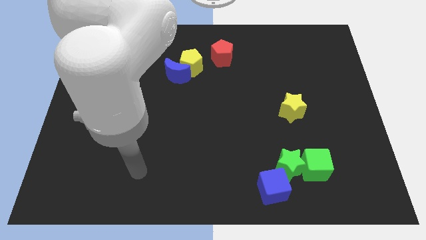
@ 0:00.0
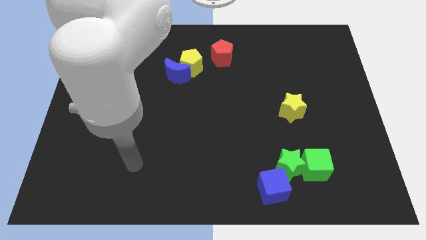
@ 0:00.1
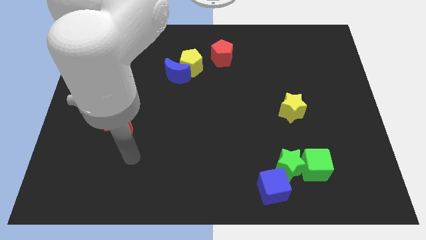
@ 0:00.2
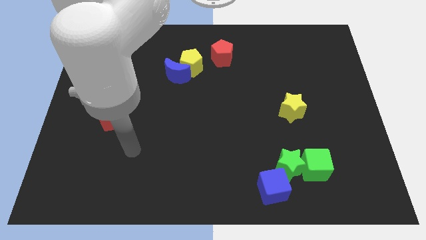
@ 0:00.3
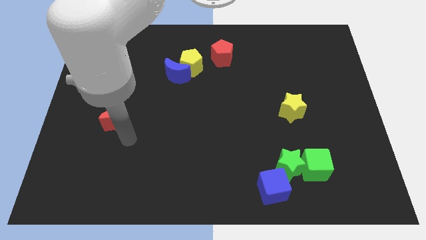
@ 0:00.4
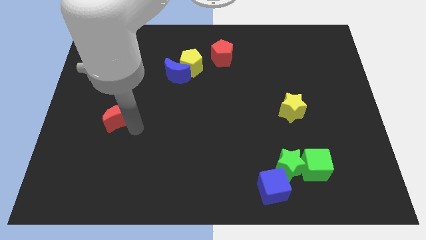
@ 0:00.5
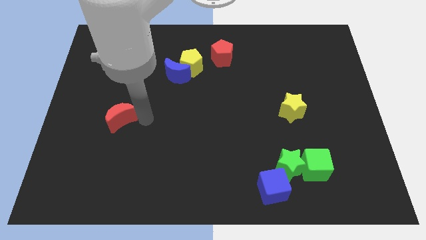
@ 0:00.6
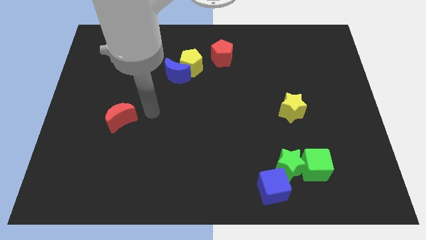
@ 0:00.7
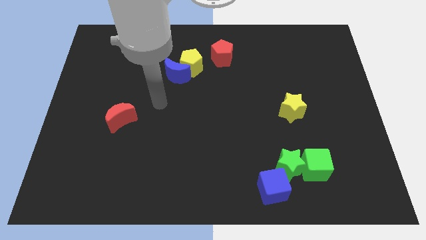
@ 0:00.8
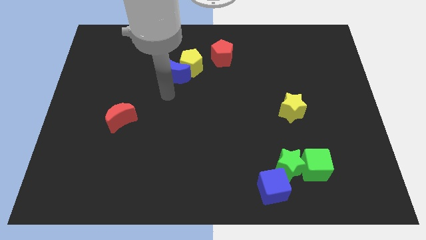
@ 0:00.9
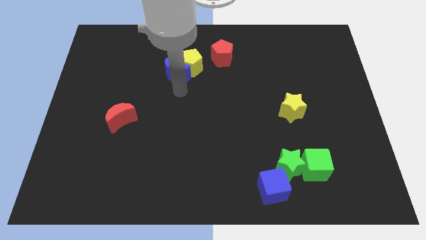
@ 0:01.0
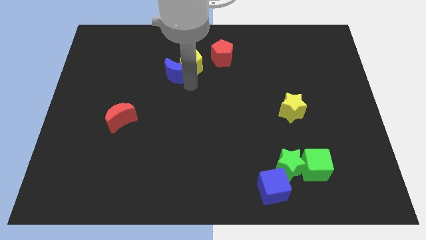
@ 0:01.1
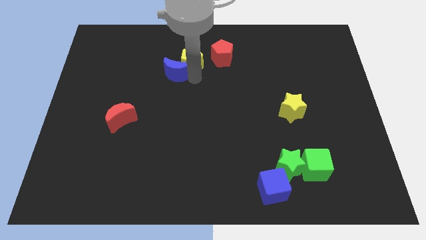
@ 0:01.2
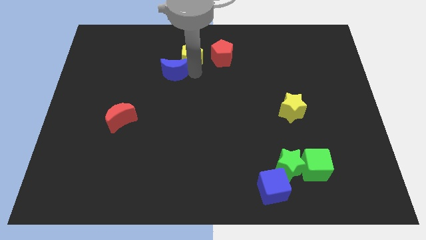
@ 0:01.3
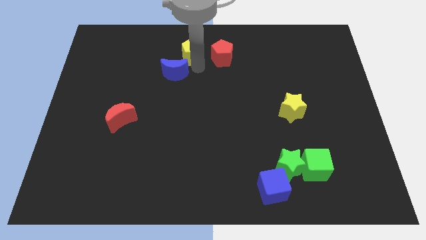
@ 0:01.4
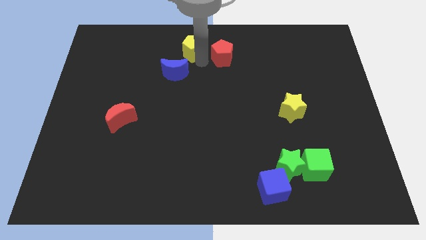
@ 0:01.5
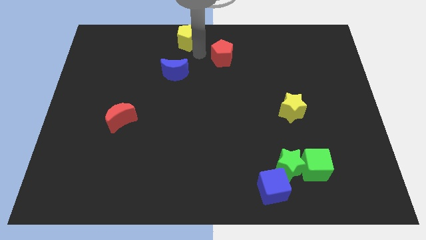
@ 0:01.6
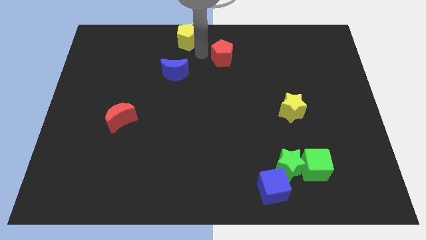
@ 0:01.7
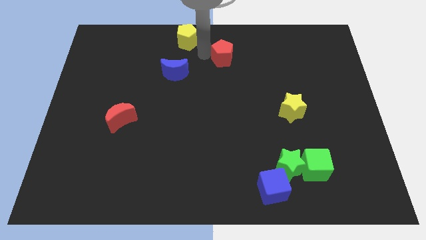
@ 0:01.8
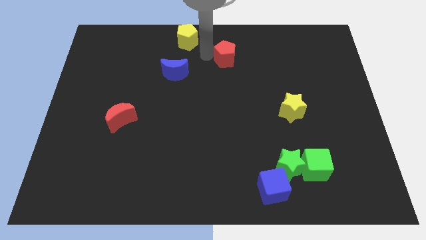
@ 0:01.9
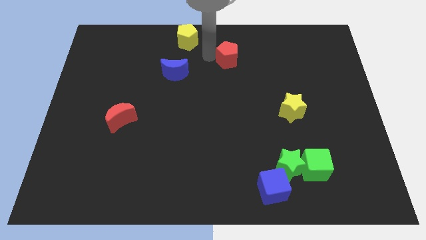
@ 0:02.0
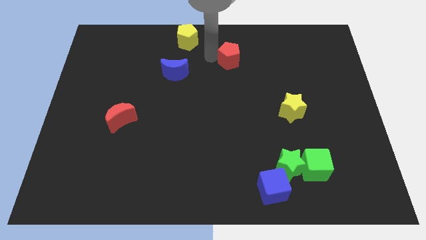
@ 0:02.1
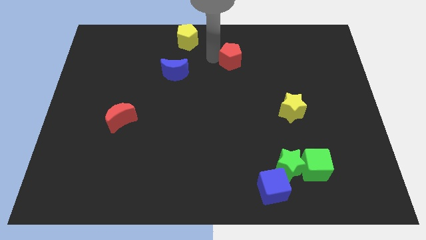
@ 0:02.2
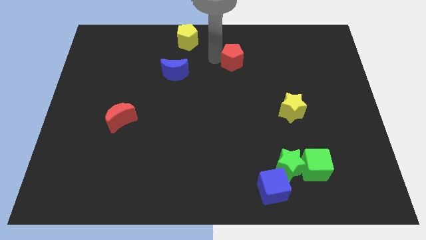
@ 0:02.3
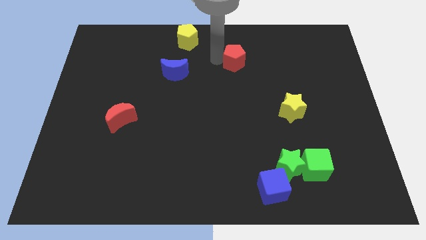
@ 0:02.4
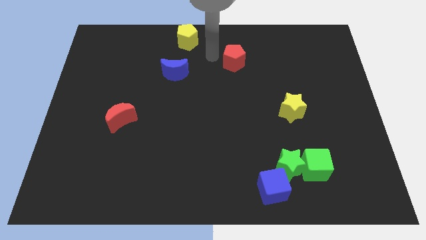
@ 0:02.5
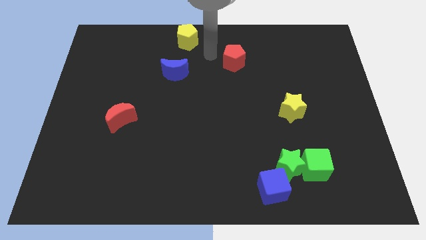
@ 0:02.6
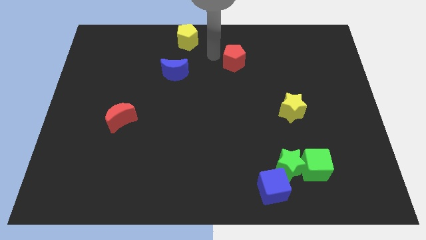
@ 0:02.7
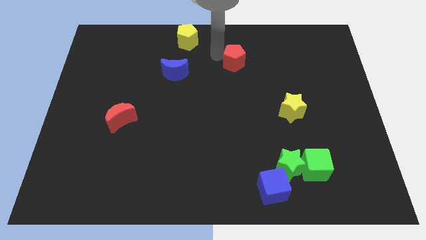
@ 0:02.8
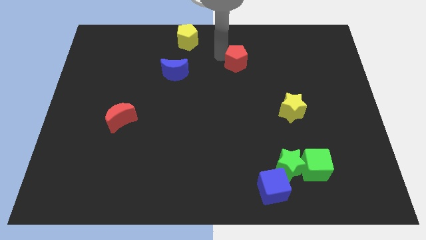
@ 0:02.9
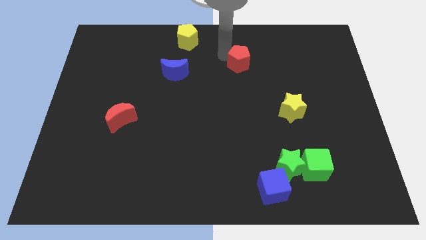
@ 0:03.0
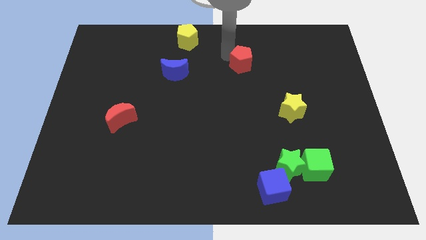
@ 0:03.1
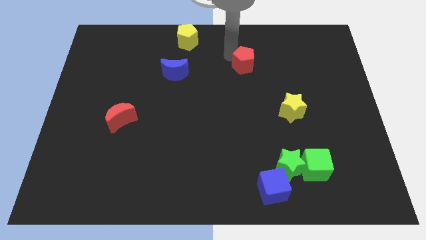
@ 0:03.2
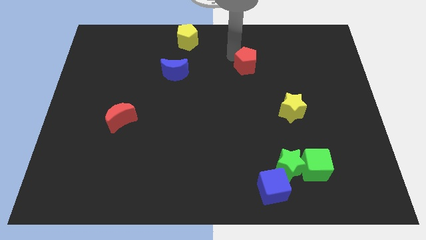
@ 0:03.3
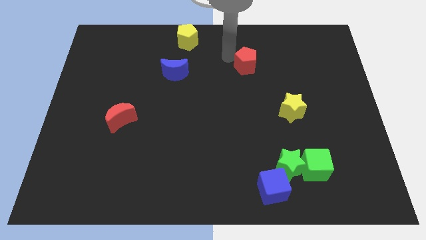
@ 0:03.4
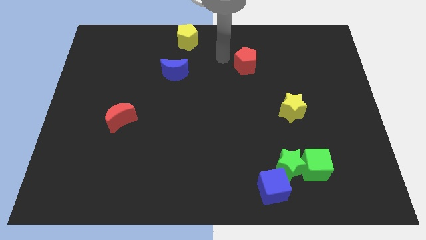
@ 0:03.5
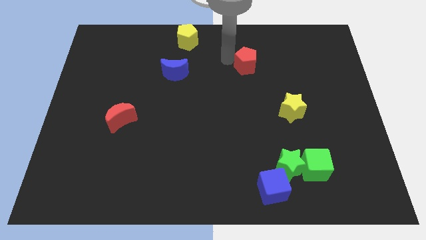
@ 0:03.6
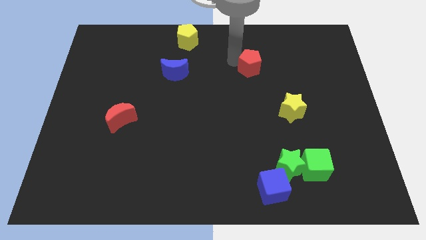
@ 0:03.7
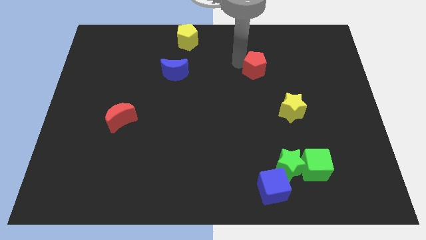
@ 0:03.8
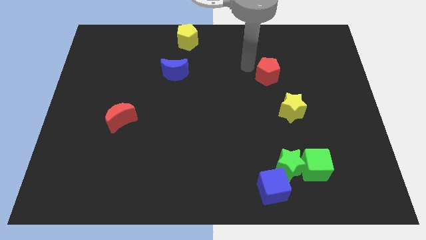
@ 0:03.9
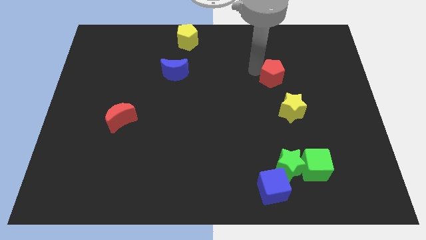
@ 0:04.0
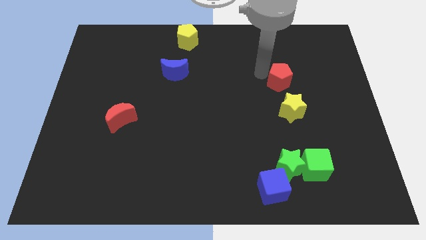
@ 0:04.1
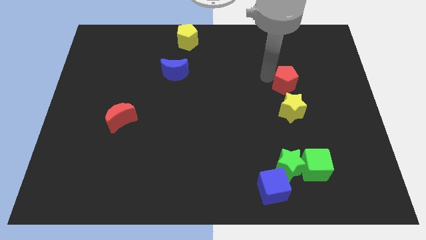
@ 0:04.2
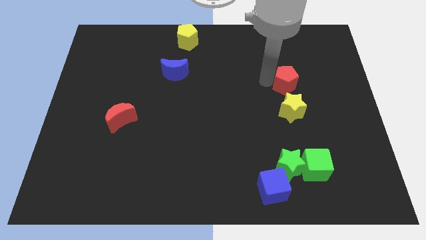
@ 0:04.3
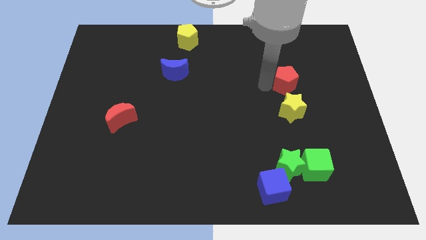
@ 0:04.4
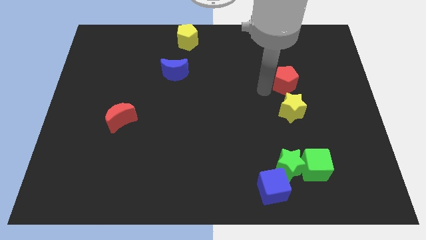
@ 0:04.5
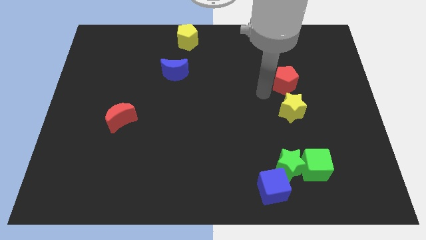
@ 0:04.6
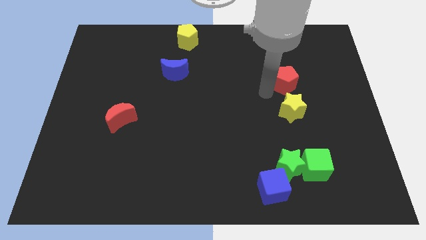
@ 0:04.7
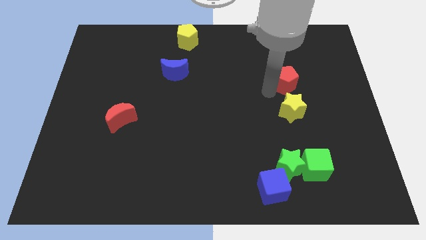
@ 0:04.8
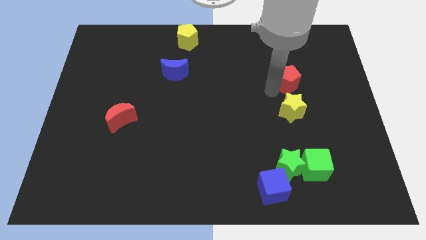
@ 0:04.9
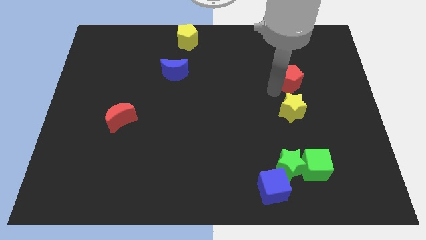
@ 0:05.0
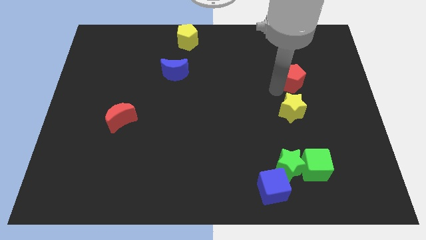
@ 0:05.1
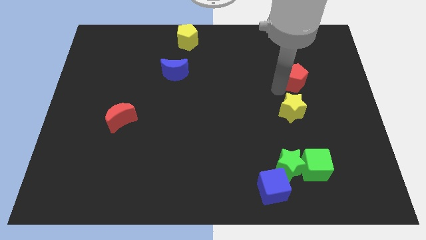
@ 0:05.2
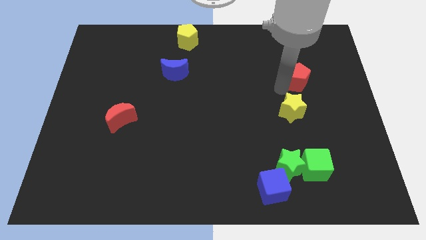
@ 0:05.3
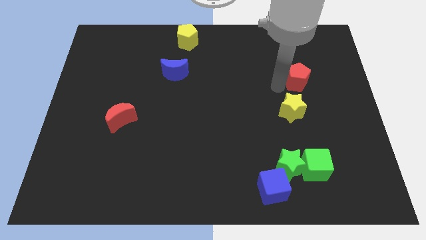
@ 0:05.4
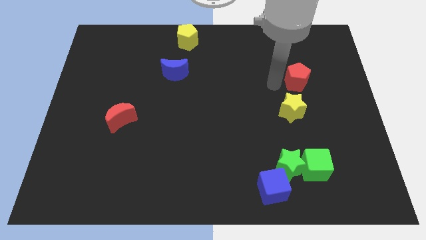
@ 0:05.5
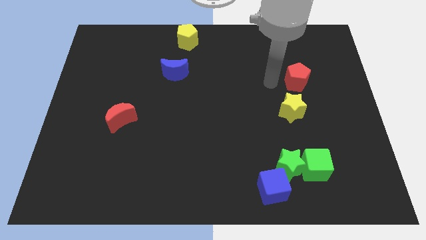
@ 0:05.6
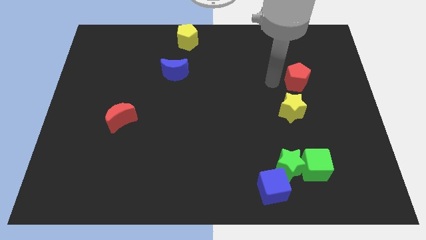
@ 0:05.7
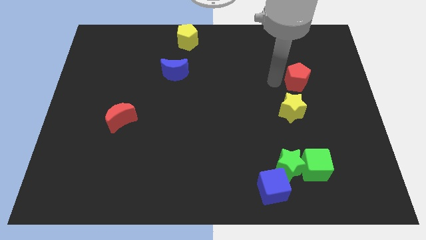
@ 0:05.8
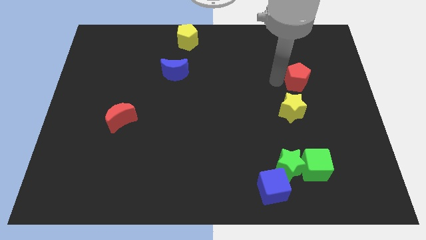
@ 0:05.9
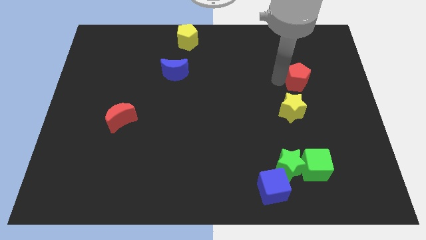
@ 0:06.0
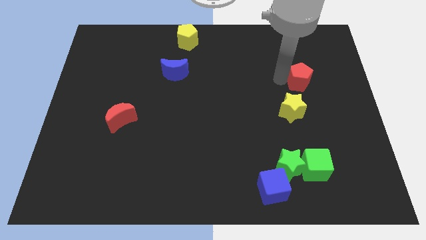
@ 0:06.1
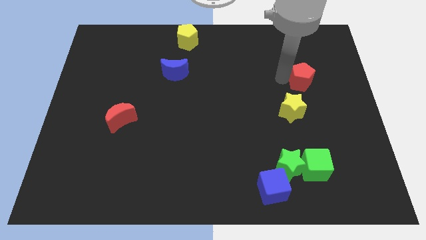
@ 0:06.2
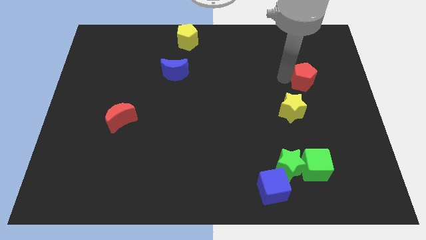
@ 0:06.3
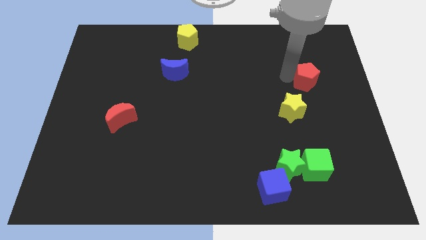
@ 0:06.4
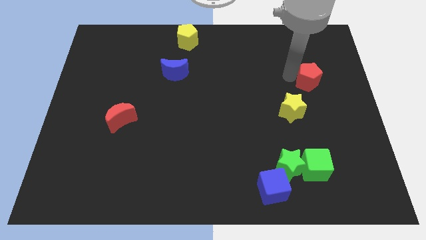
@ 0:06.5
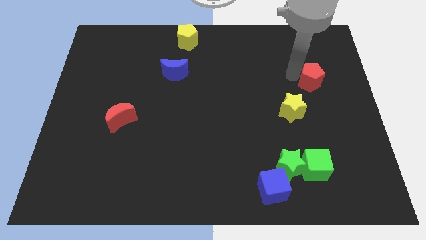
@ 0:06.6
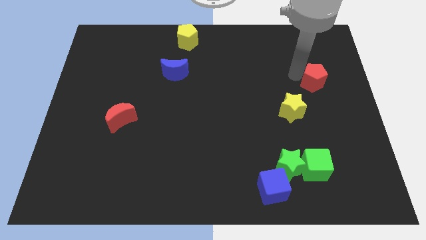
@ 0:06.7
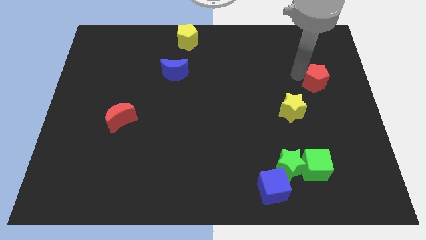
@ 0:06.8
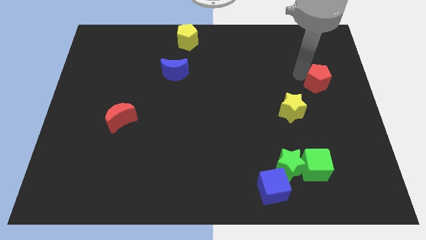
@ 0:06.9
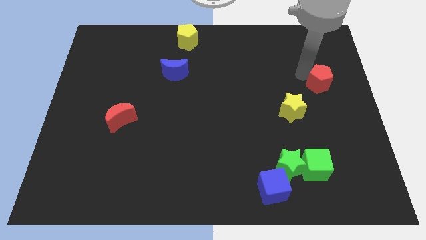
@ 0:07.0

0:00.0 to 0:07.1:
push the red pentagon to the right side
